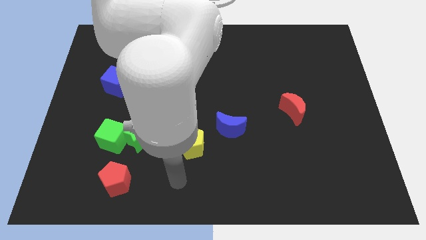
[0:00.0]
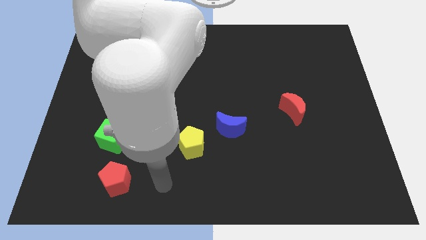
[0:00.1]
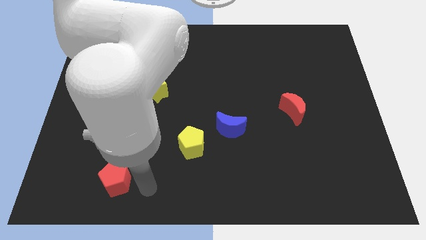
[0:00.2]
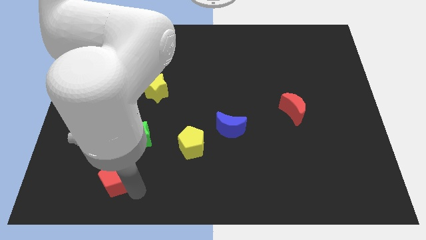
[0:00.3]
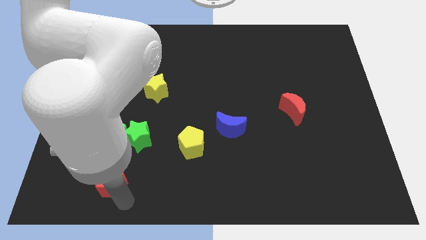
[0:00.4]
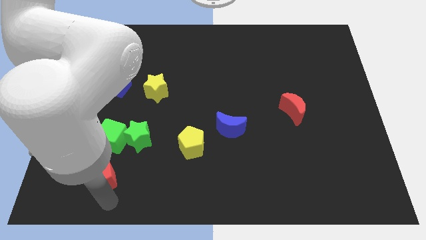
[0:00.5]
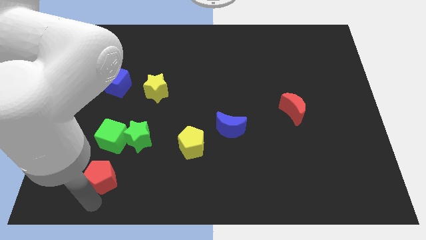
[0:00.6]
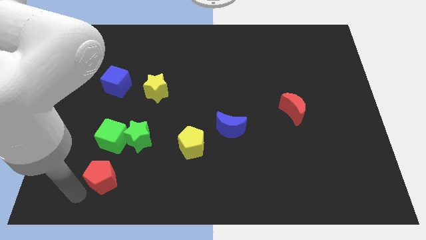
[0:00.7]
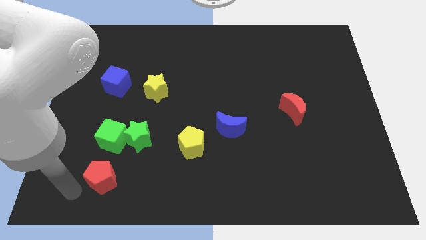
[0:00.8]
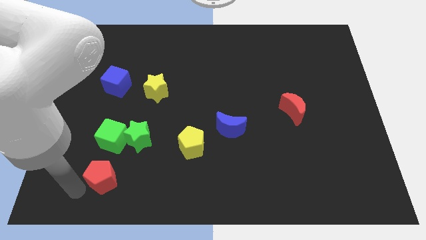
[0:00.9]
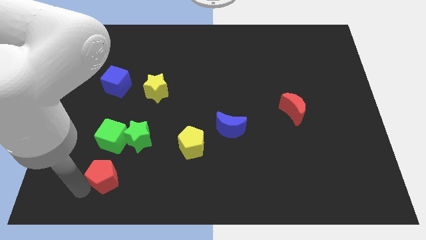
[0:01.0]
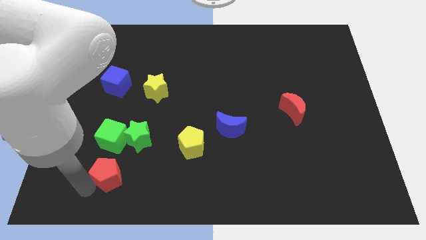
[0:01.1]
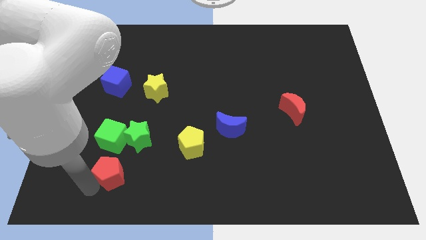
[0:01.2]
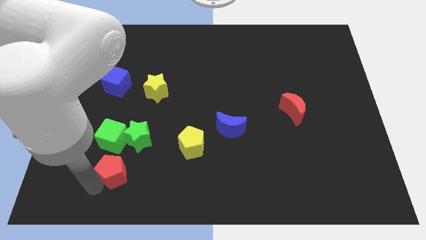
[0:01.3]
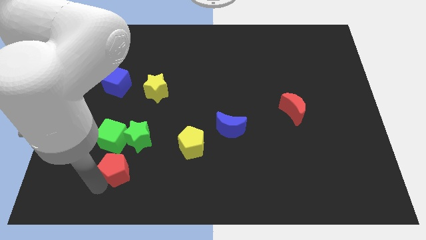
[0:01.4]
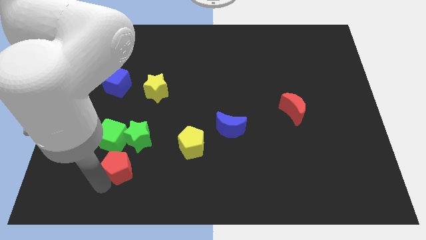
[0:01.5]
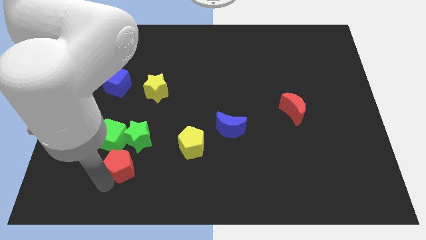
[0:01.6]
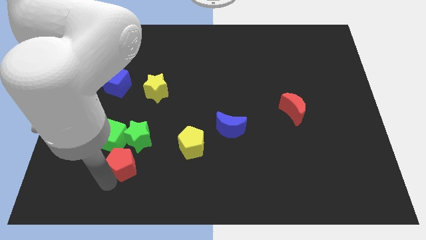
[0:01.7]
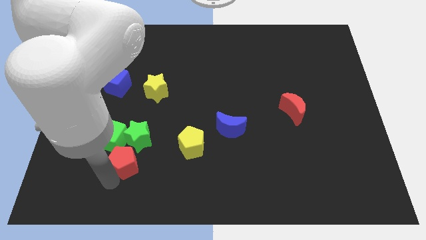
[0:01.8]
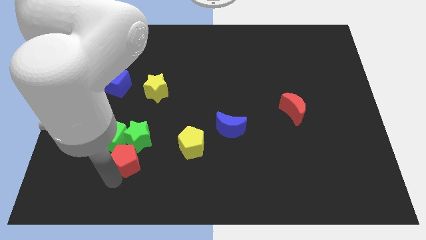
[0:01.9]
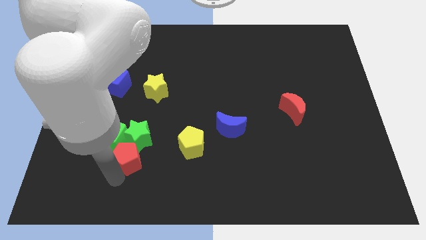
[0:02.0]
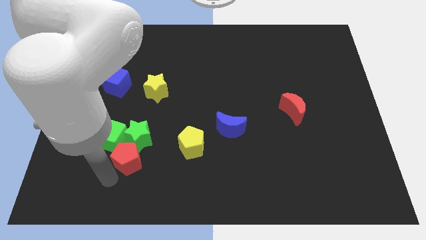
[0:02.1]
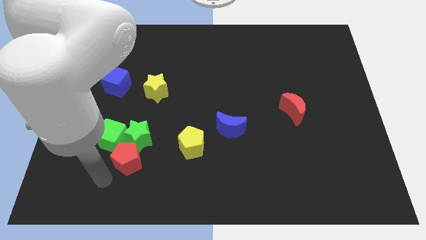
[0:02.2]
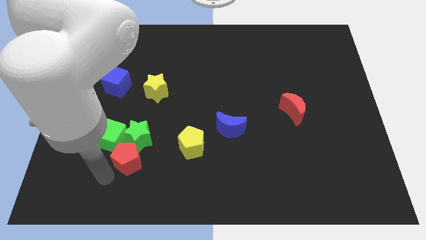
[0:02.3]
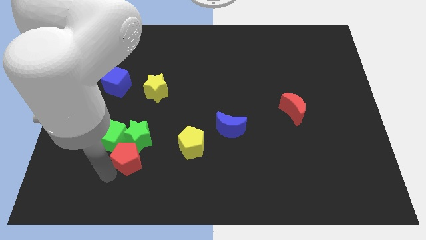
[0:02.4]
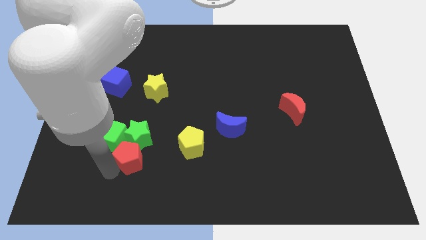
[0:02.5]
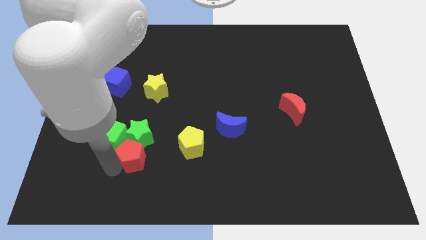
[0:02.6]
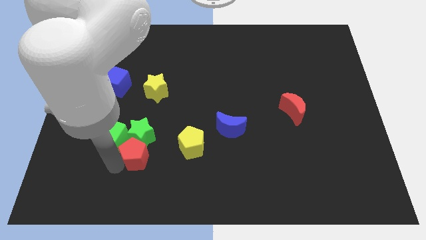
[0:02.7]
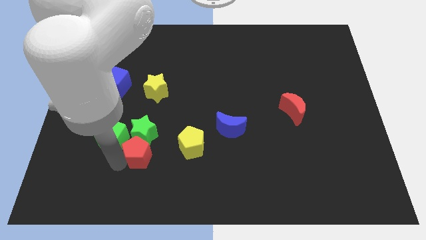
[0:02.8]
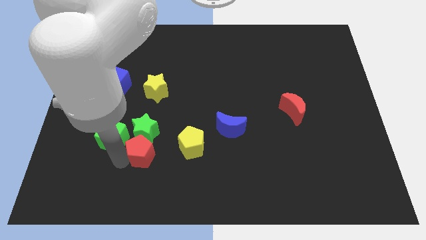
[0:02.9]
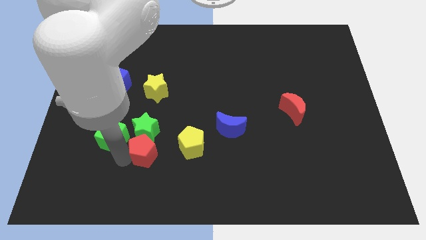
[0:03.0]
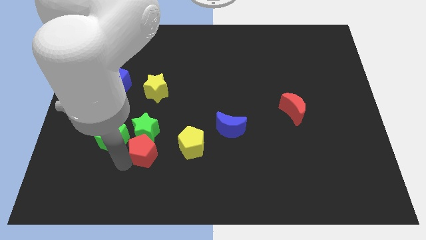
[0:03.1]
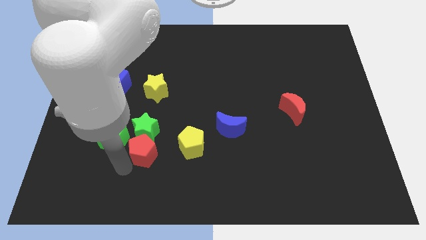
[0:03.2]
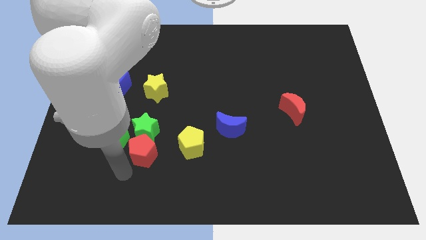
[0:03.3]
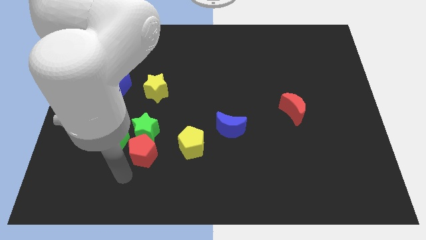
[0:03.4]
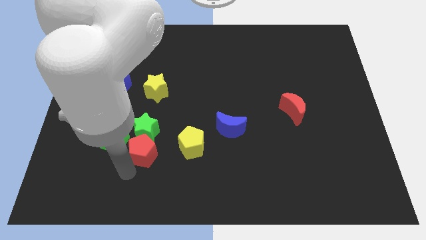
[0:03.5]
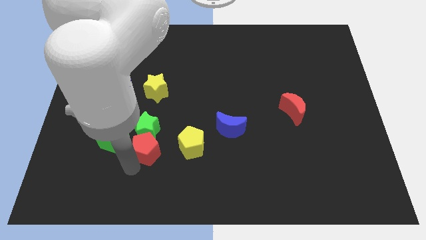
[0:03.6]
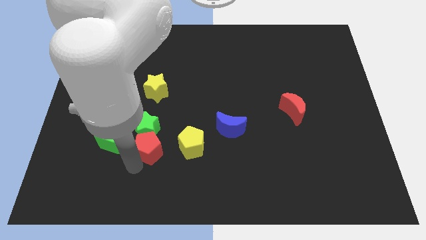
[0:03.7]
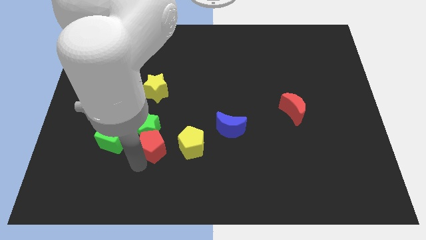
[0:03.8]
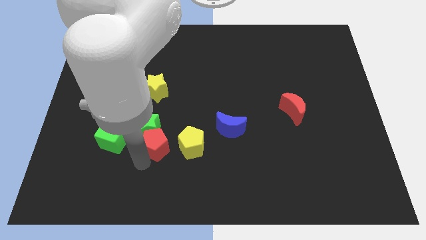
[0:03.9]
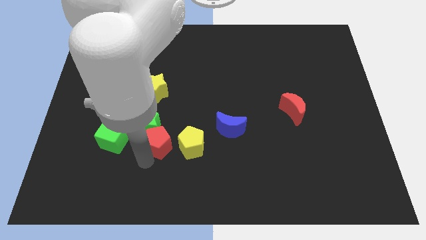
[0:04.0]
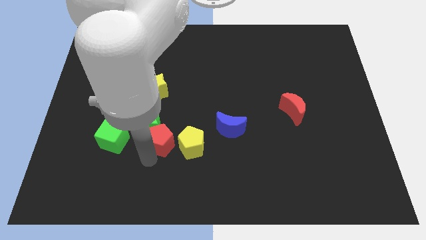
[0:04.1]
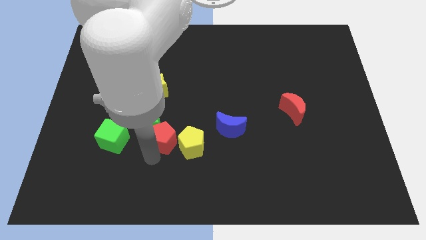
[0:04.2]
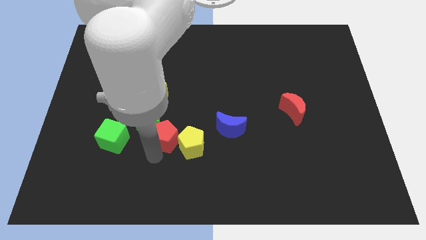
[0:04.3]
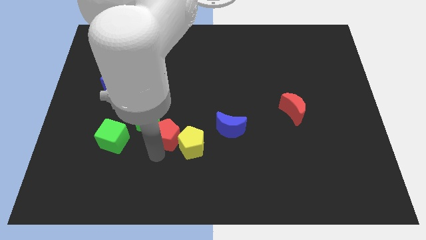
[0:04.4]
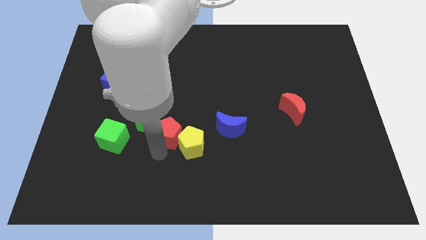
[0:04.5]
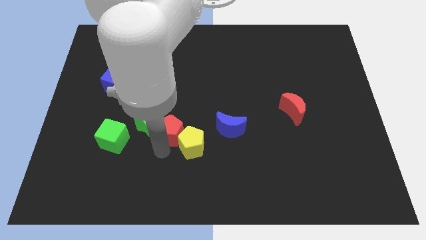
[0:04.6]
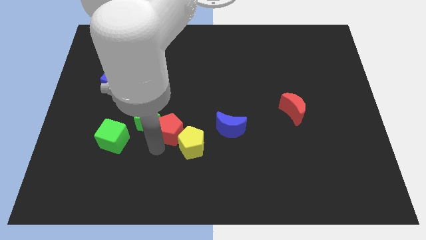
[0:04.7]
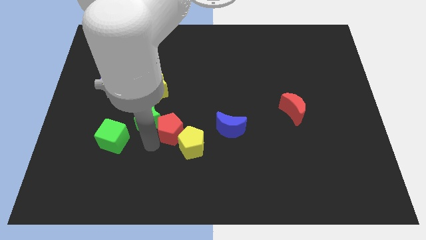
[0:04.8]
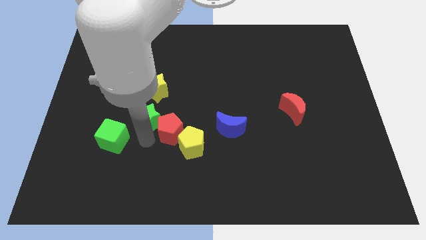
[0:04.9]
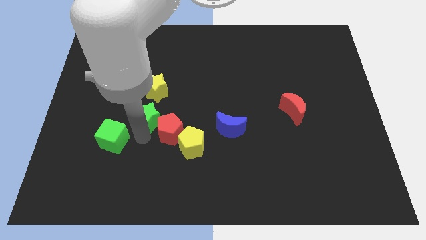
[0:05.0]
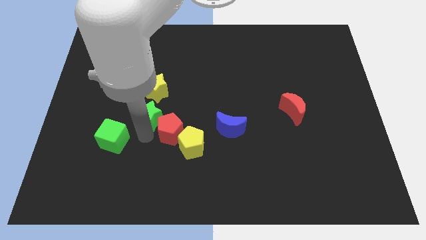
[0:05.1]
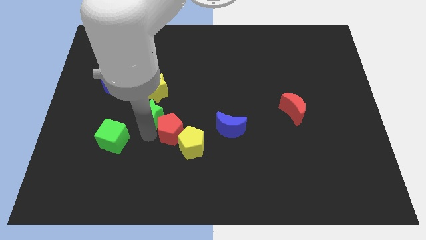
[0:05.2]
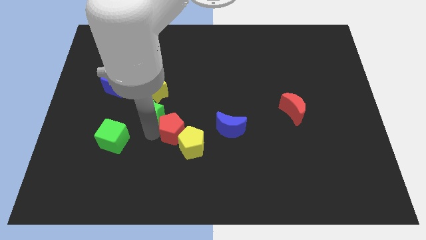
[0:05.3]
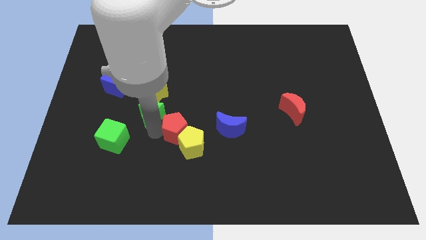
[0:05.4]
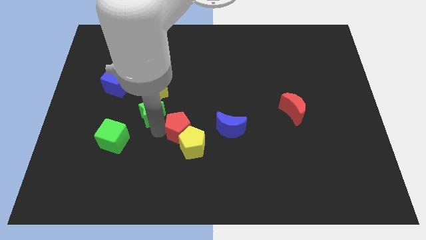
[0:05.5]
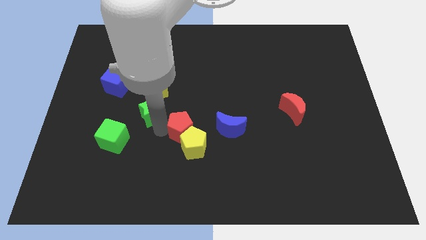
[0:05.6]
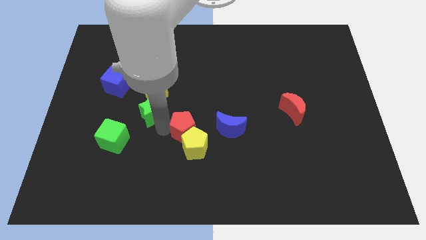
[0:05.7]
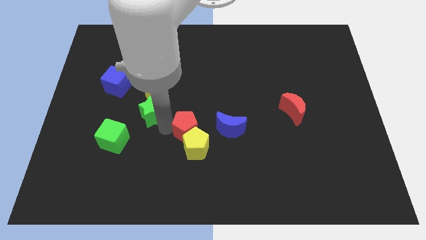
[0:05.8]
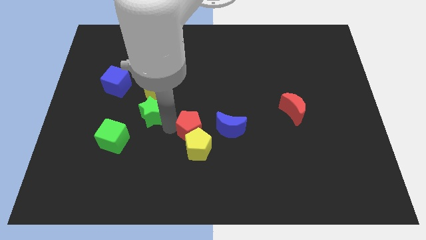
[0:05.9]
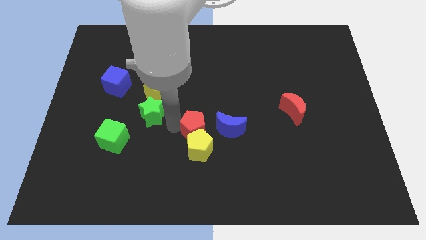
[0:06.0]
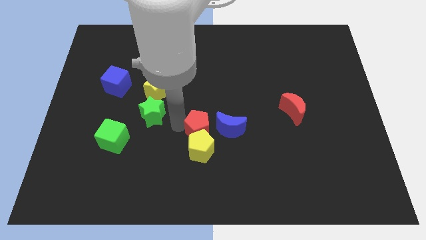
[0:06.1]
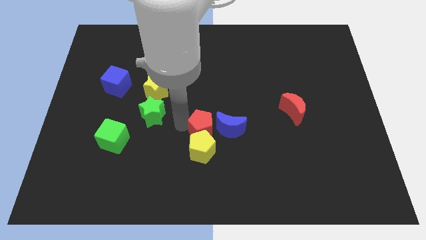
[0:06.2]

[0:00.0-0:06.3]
put the red pentagon towards the blue moon

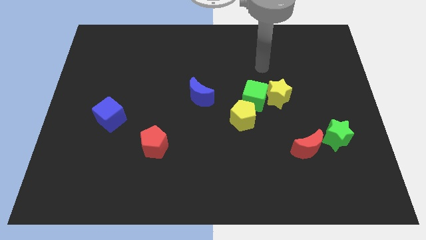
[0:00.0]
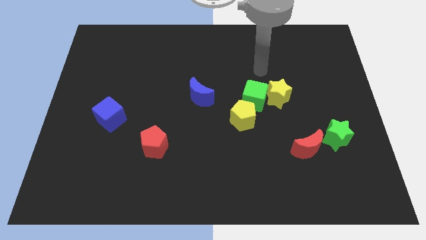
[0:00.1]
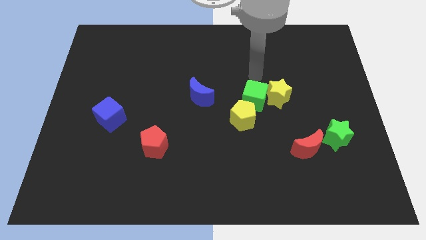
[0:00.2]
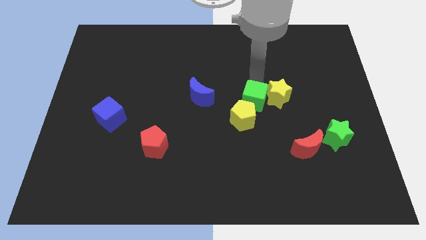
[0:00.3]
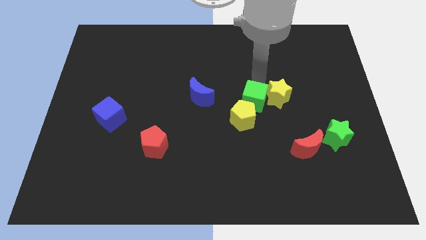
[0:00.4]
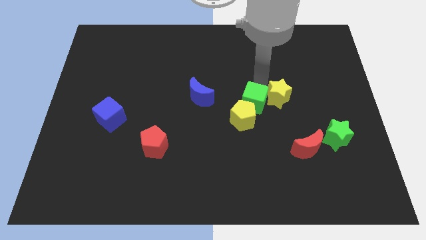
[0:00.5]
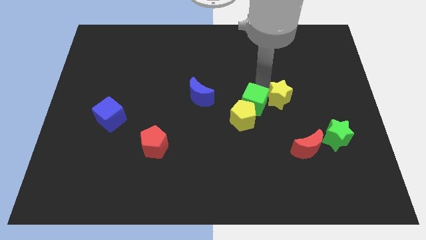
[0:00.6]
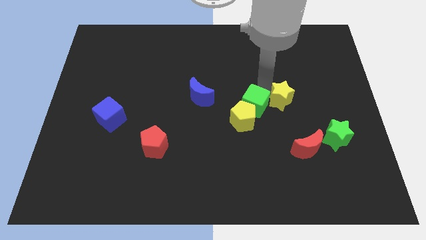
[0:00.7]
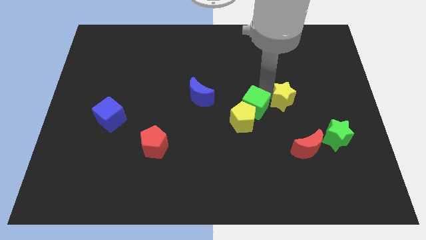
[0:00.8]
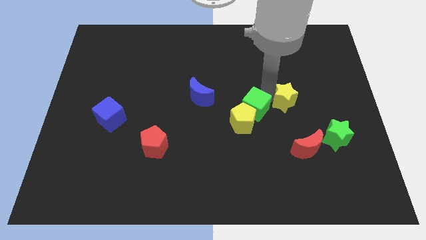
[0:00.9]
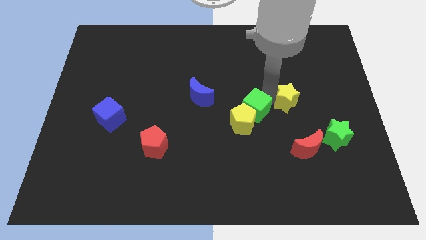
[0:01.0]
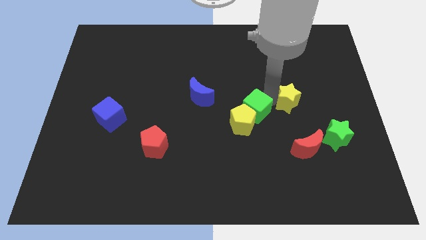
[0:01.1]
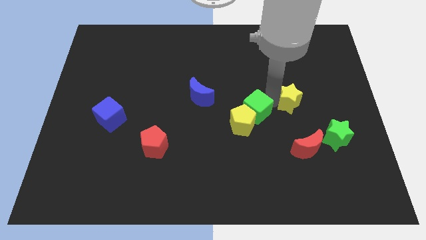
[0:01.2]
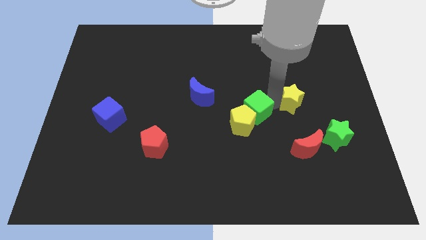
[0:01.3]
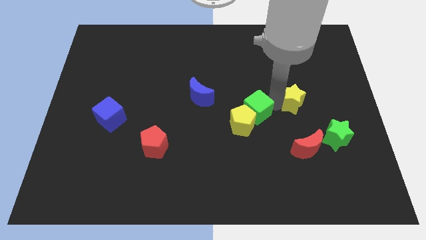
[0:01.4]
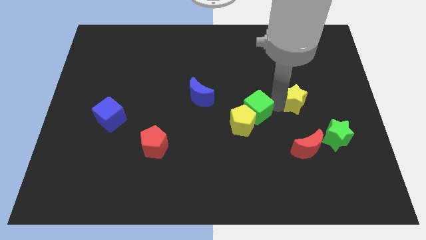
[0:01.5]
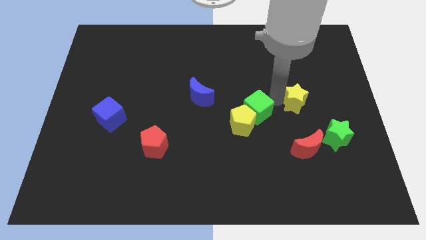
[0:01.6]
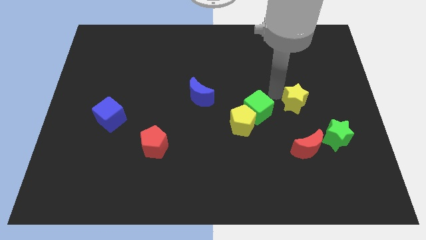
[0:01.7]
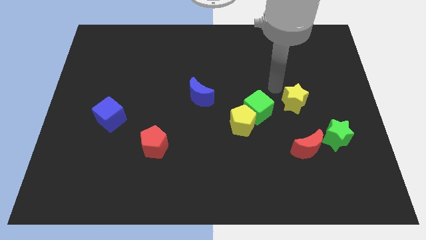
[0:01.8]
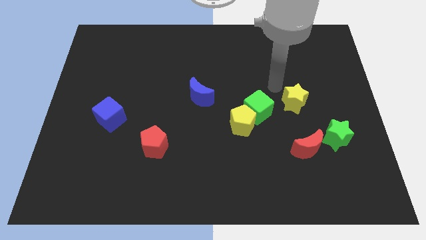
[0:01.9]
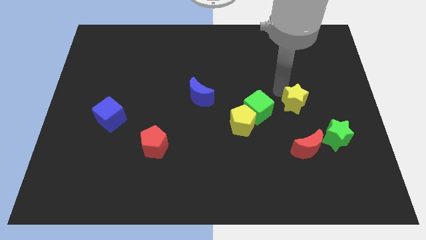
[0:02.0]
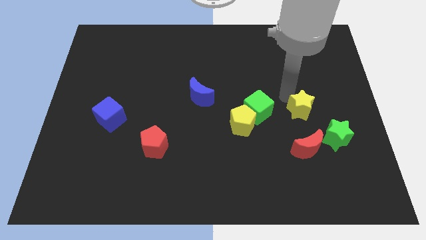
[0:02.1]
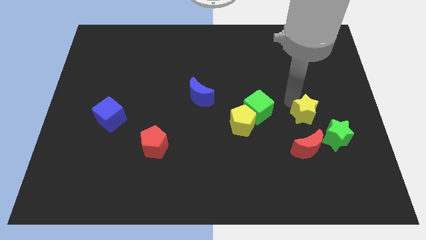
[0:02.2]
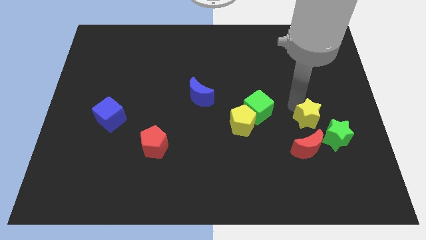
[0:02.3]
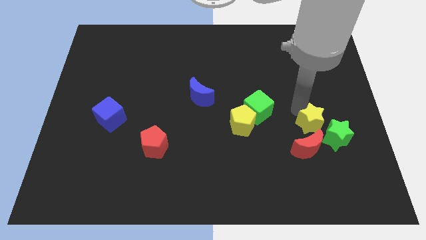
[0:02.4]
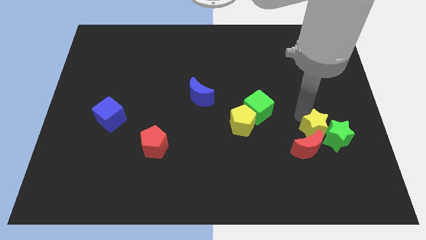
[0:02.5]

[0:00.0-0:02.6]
slide the yellow star to the green star
